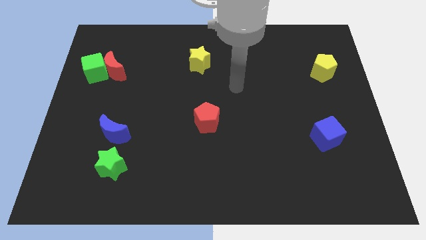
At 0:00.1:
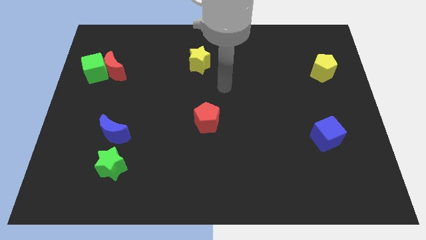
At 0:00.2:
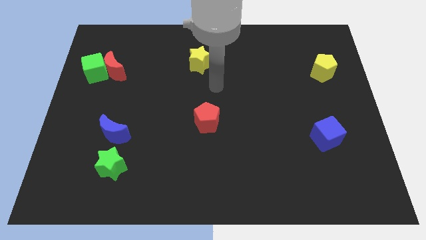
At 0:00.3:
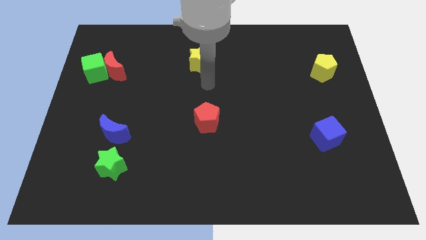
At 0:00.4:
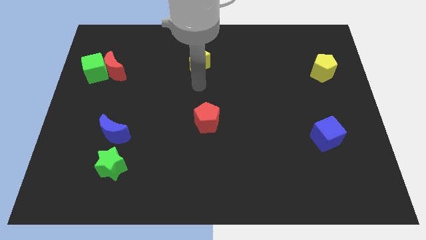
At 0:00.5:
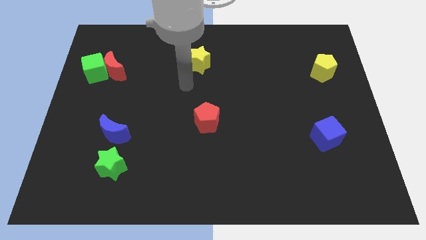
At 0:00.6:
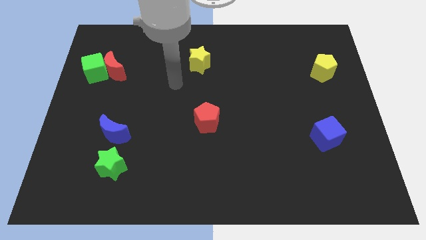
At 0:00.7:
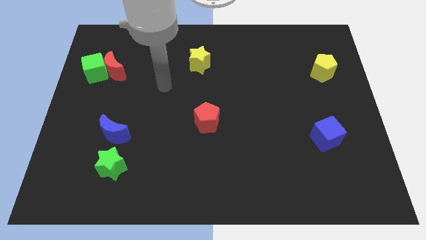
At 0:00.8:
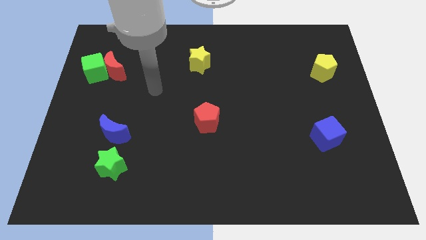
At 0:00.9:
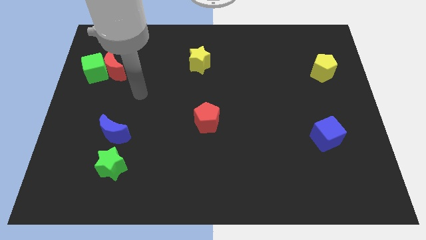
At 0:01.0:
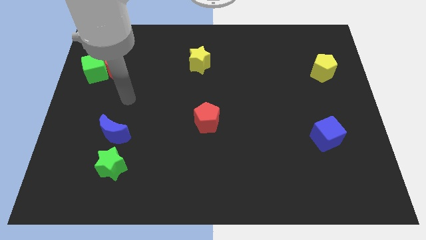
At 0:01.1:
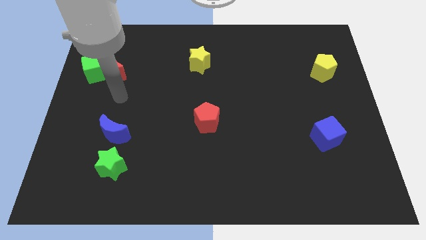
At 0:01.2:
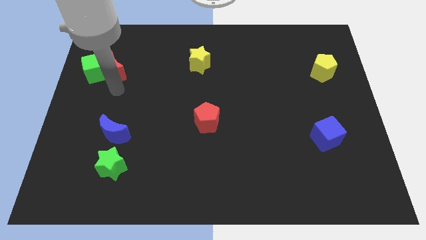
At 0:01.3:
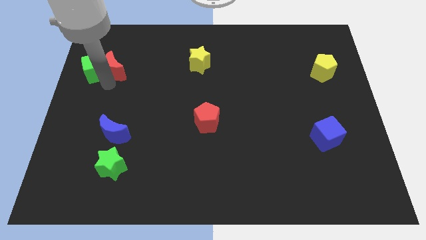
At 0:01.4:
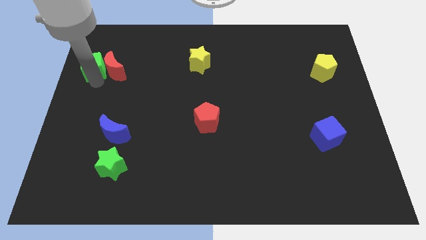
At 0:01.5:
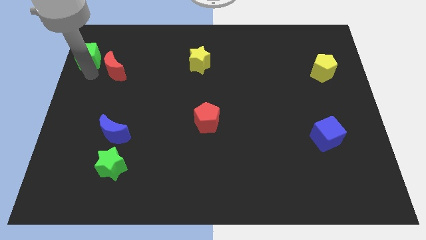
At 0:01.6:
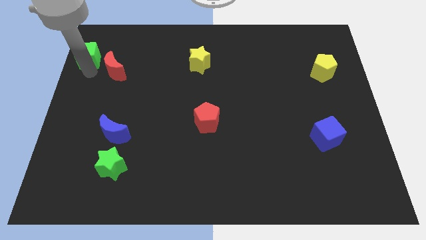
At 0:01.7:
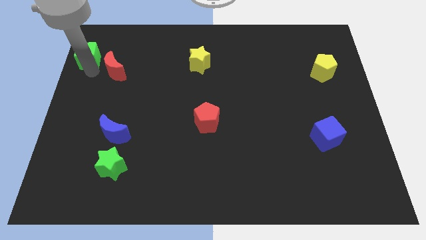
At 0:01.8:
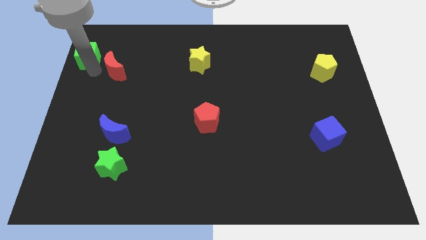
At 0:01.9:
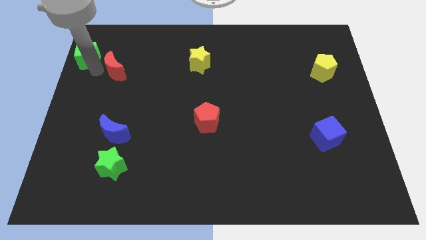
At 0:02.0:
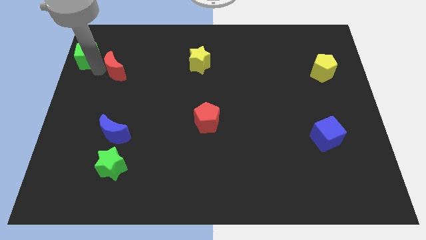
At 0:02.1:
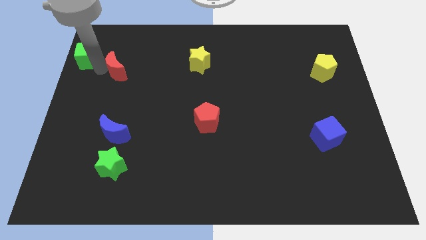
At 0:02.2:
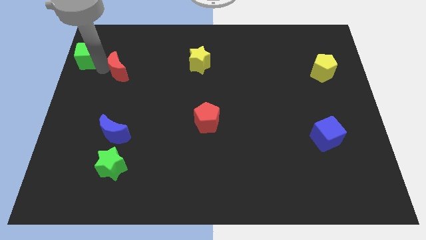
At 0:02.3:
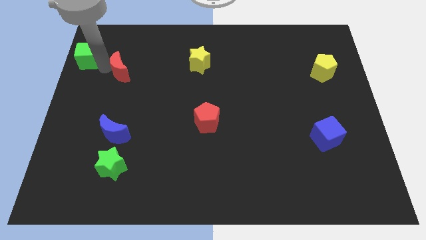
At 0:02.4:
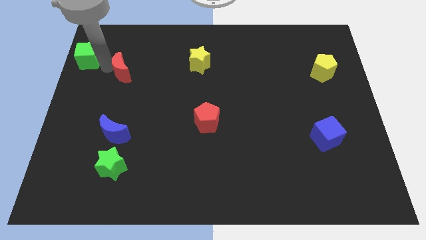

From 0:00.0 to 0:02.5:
separate the red moon from the green cube

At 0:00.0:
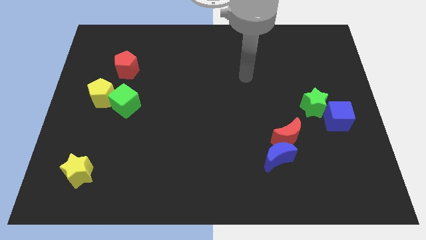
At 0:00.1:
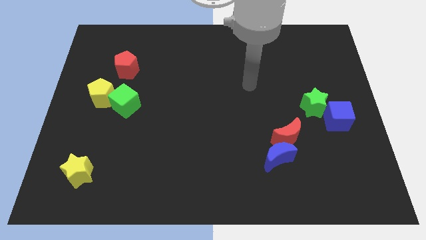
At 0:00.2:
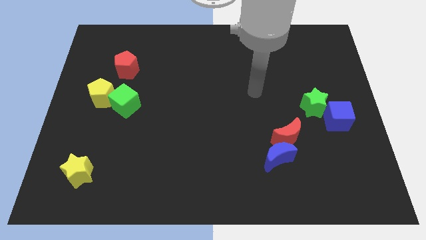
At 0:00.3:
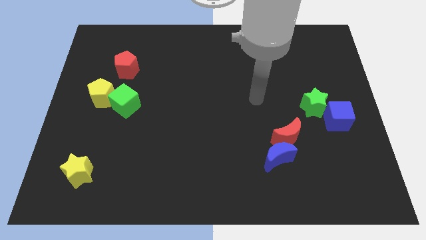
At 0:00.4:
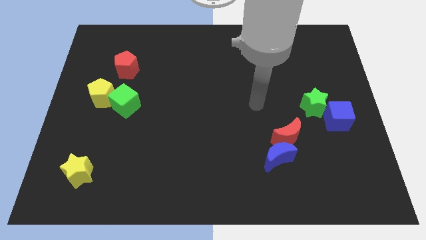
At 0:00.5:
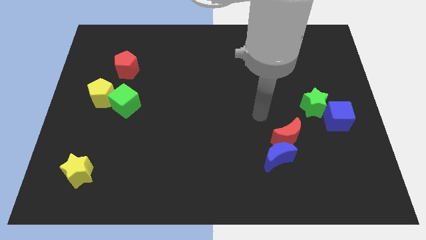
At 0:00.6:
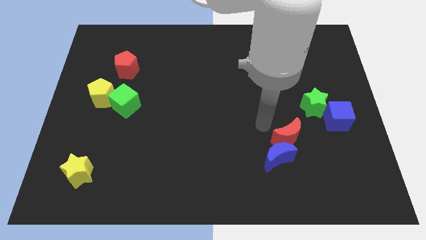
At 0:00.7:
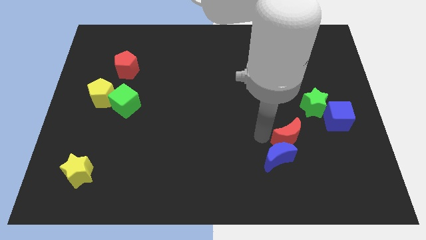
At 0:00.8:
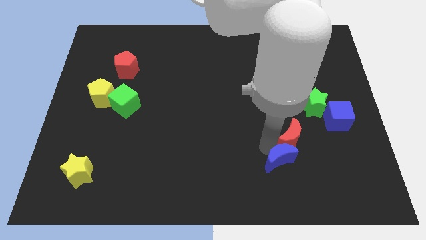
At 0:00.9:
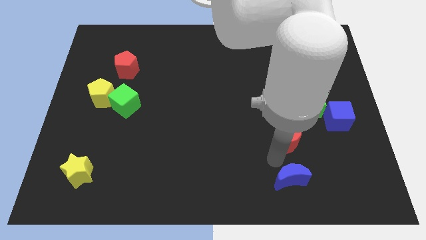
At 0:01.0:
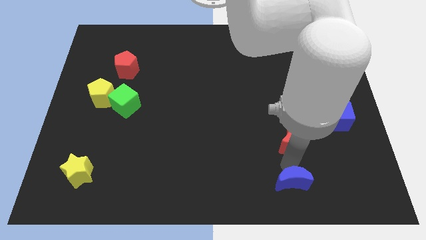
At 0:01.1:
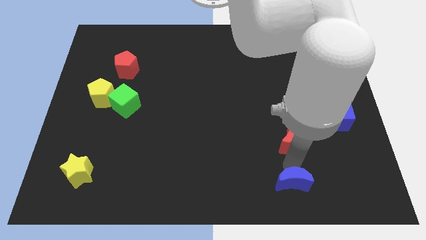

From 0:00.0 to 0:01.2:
separate the red moon from the blue moon

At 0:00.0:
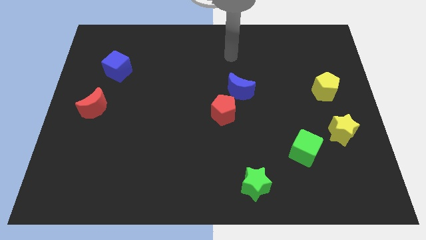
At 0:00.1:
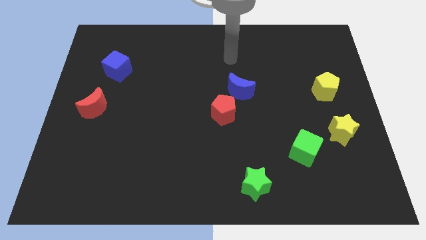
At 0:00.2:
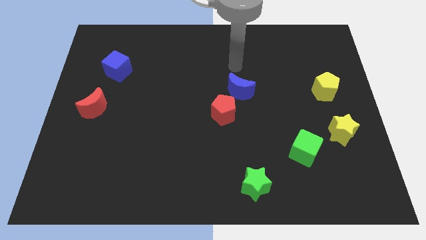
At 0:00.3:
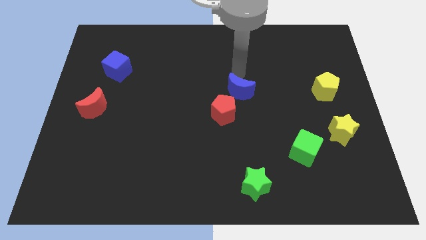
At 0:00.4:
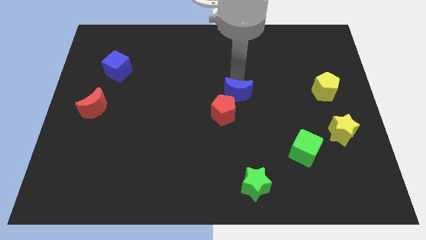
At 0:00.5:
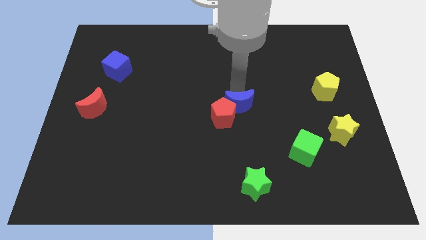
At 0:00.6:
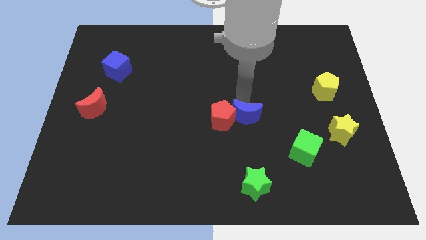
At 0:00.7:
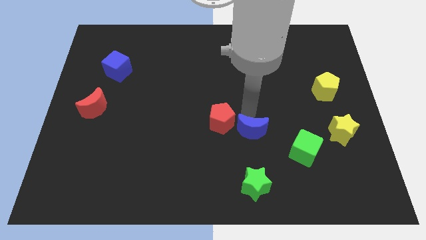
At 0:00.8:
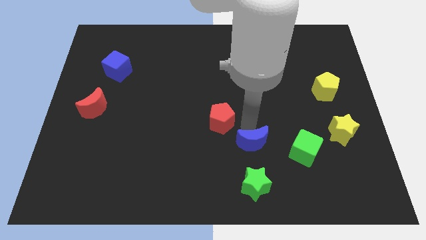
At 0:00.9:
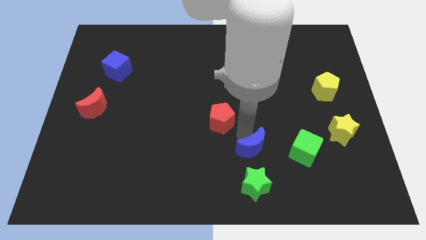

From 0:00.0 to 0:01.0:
move the red pentagon away from the blue moon

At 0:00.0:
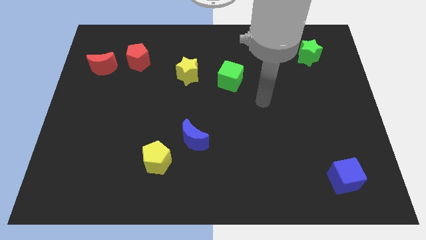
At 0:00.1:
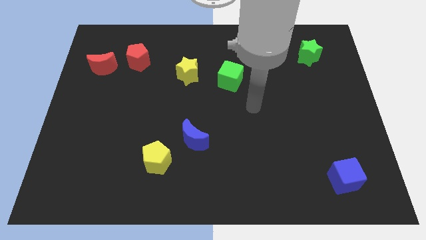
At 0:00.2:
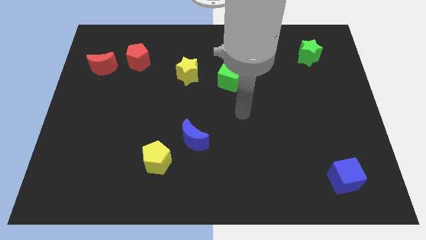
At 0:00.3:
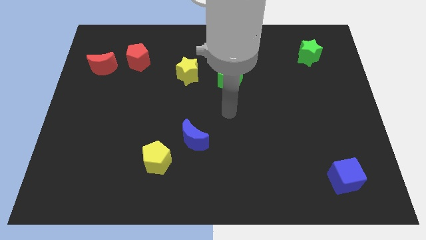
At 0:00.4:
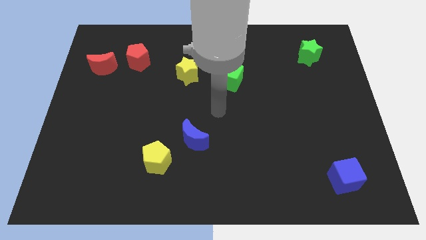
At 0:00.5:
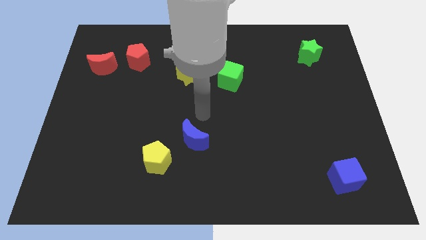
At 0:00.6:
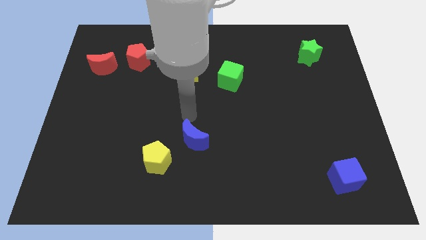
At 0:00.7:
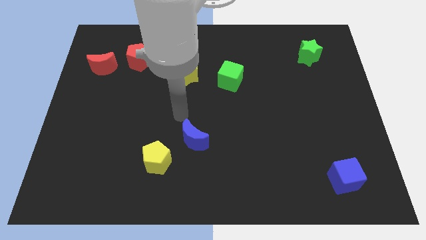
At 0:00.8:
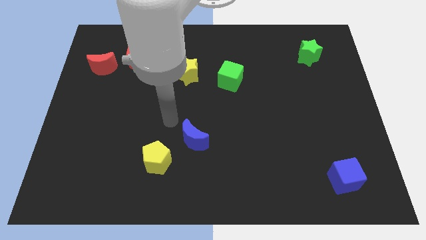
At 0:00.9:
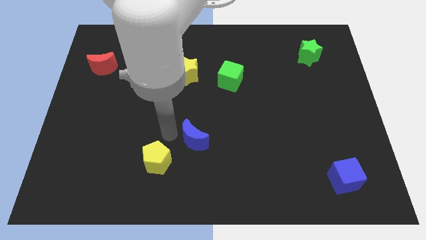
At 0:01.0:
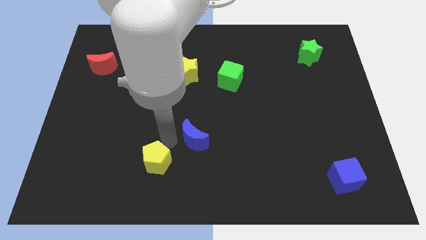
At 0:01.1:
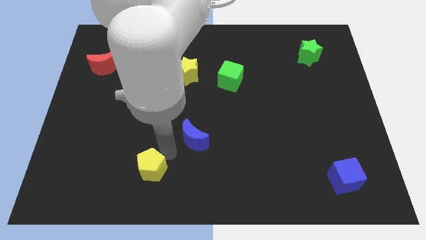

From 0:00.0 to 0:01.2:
move the blue moon away from the yellow pentagon

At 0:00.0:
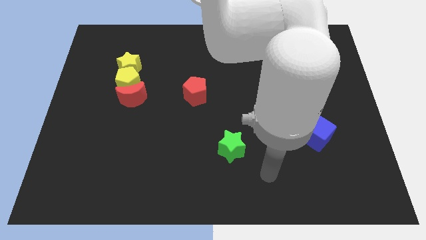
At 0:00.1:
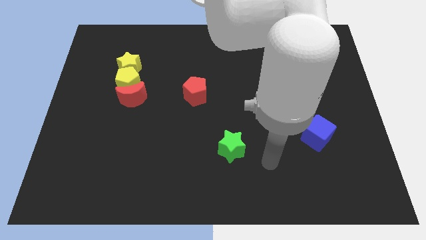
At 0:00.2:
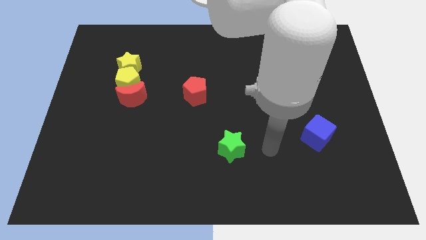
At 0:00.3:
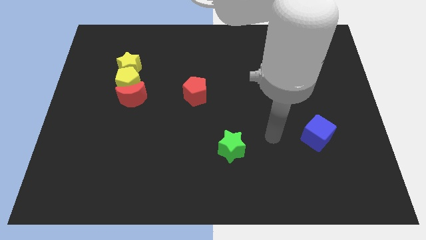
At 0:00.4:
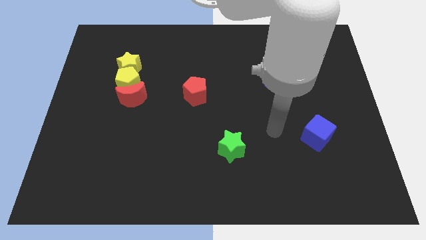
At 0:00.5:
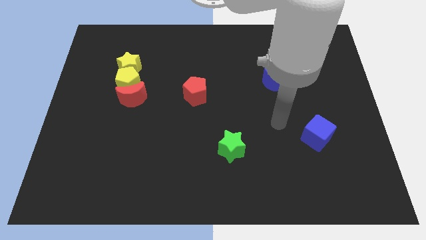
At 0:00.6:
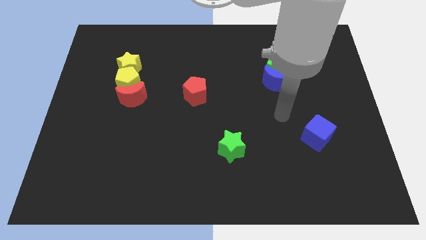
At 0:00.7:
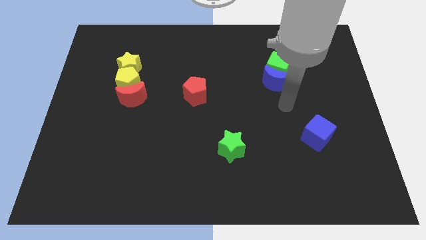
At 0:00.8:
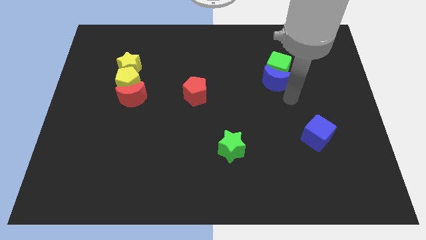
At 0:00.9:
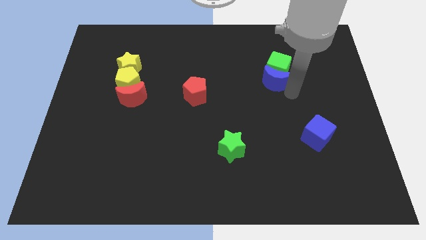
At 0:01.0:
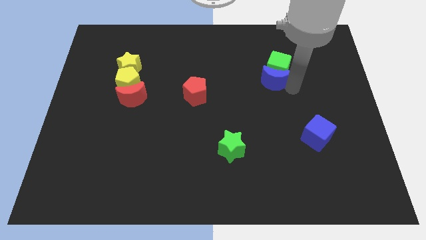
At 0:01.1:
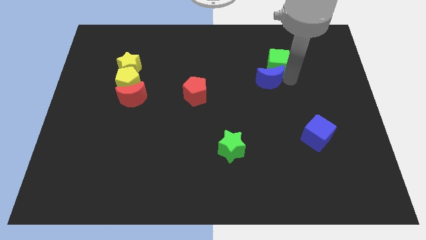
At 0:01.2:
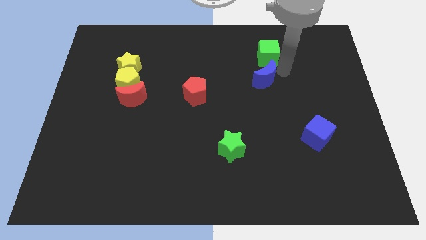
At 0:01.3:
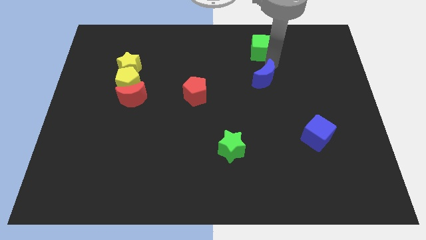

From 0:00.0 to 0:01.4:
separate the blue moon from the green cube

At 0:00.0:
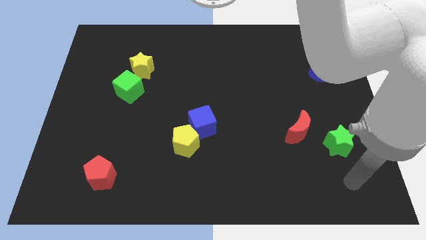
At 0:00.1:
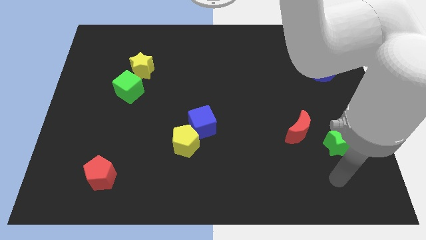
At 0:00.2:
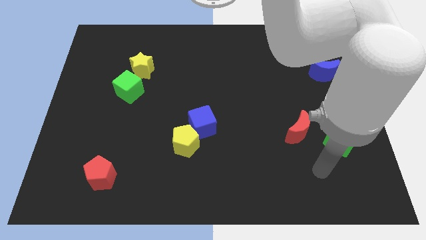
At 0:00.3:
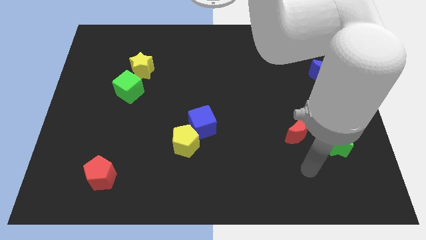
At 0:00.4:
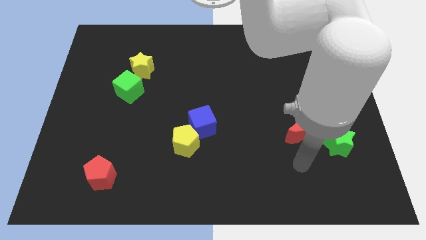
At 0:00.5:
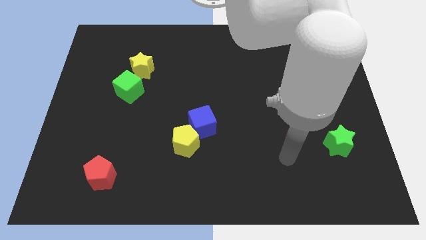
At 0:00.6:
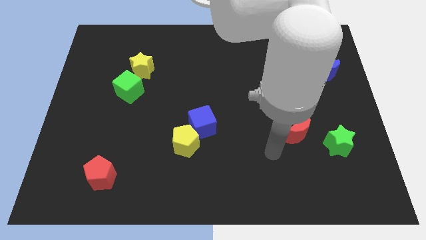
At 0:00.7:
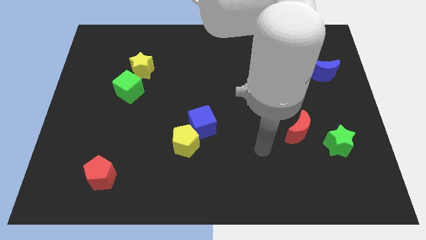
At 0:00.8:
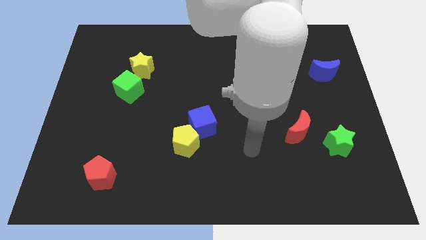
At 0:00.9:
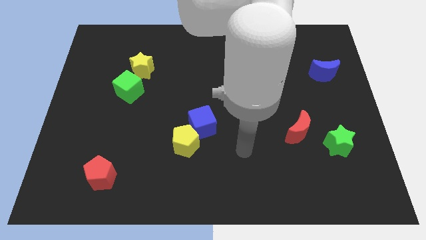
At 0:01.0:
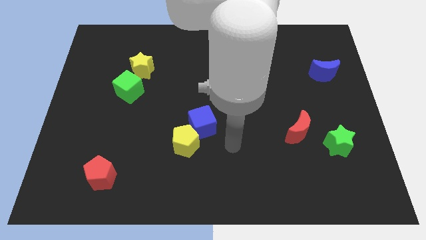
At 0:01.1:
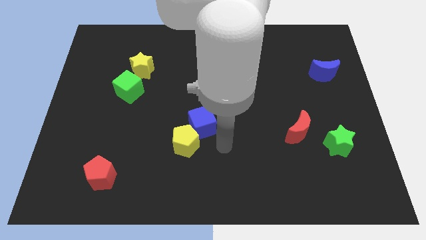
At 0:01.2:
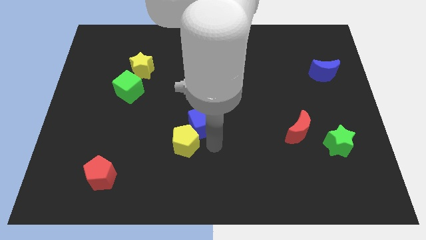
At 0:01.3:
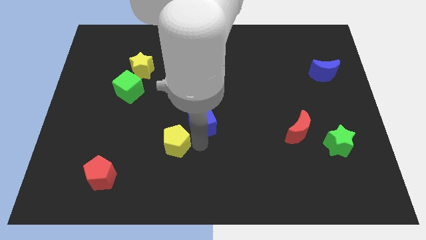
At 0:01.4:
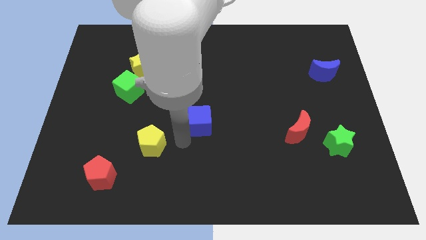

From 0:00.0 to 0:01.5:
pull the blue cube apart from the yellow pentagon

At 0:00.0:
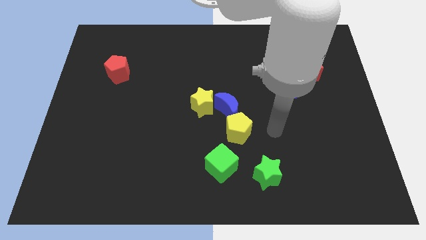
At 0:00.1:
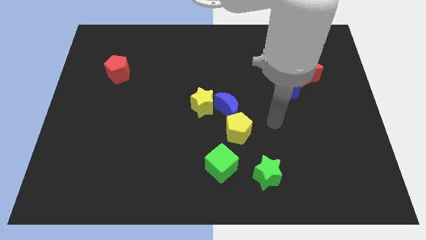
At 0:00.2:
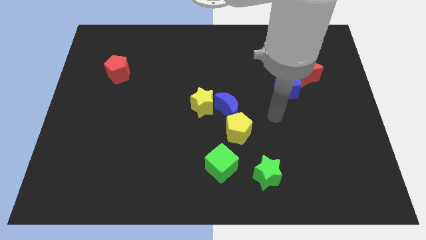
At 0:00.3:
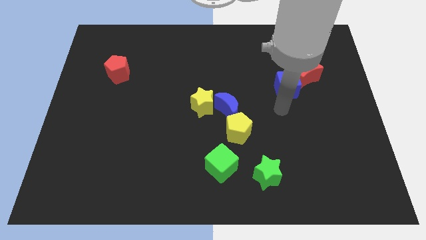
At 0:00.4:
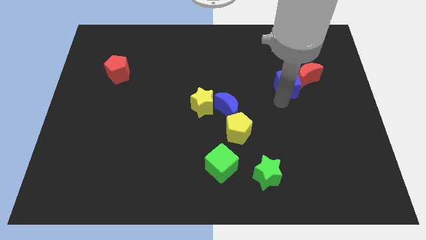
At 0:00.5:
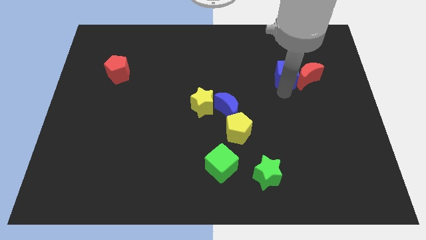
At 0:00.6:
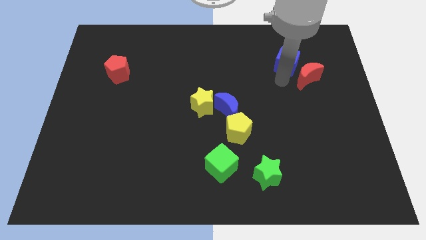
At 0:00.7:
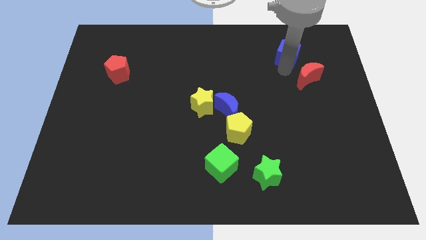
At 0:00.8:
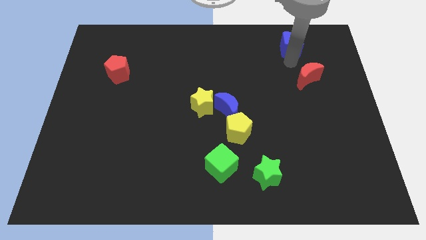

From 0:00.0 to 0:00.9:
pull the red moon apart from the blue cube
